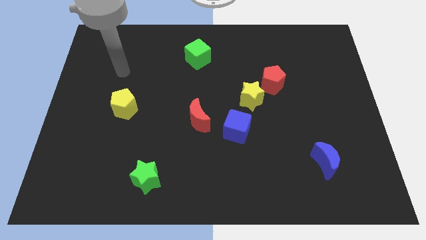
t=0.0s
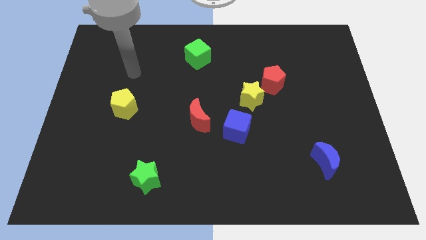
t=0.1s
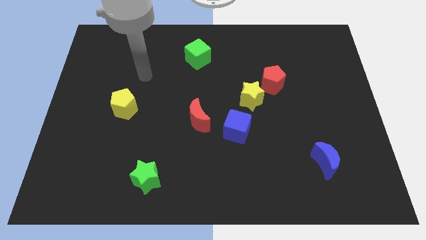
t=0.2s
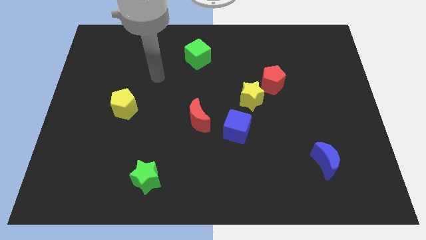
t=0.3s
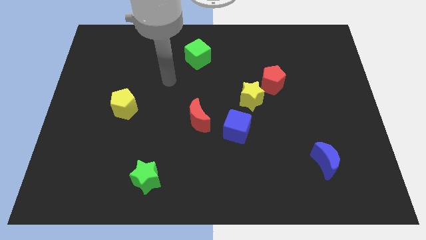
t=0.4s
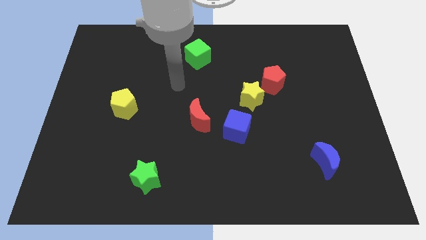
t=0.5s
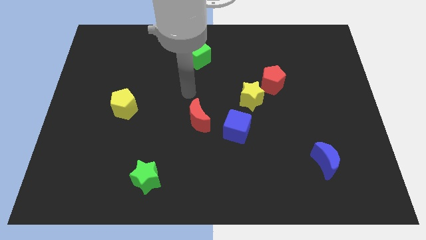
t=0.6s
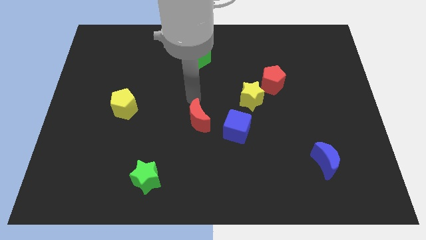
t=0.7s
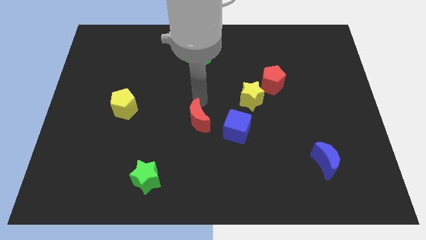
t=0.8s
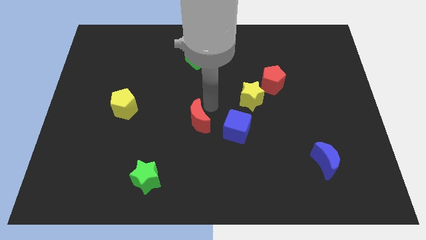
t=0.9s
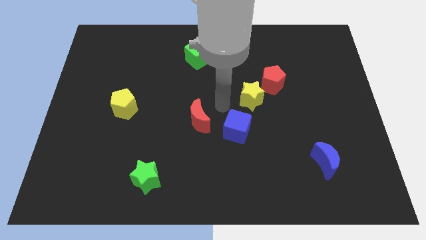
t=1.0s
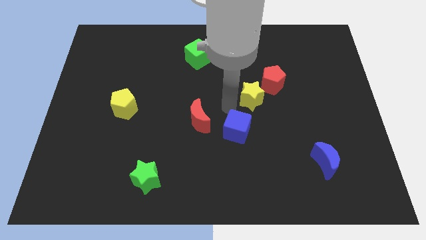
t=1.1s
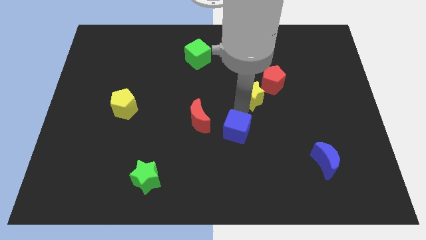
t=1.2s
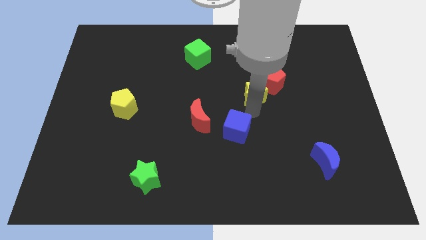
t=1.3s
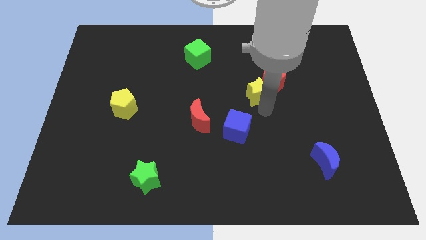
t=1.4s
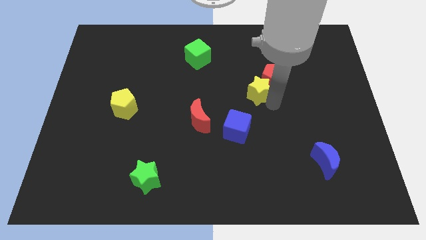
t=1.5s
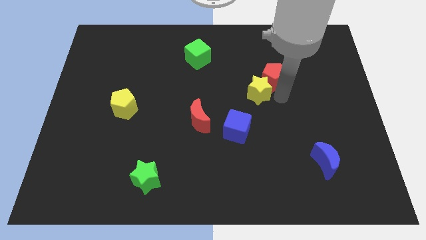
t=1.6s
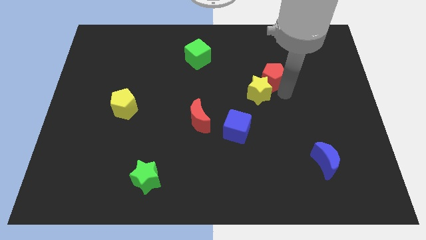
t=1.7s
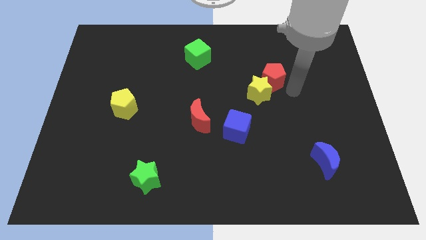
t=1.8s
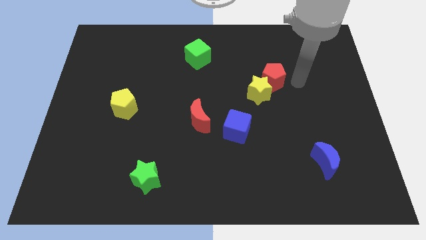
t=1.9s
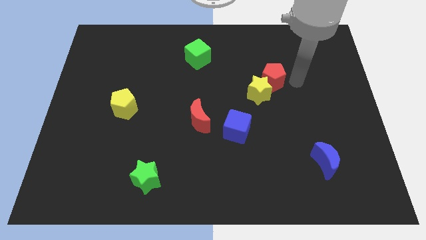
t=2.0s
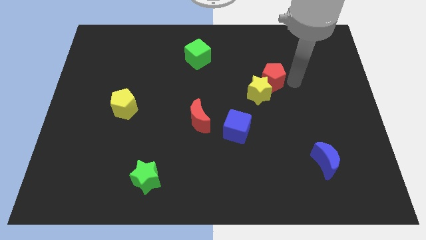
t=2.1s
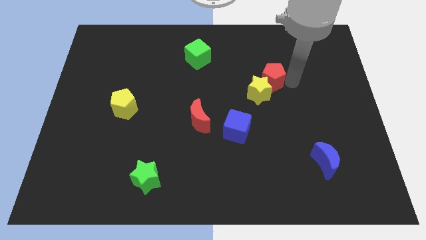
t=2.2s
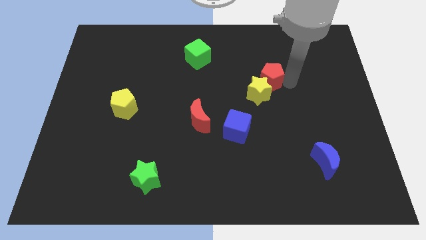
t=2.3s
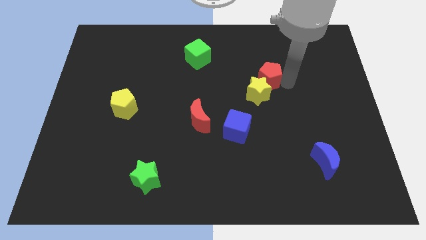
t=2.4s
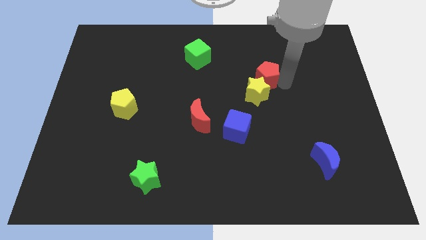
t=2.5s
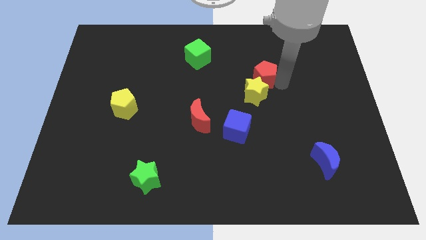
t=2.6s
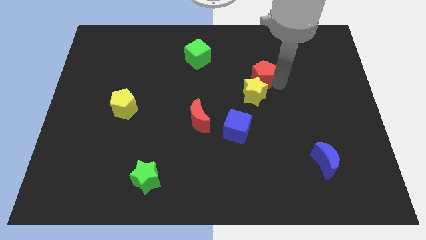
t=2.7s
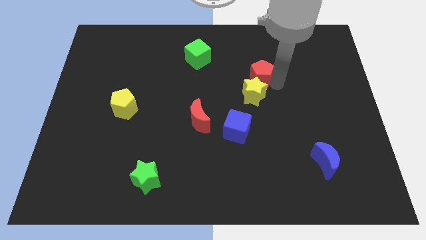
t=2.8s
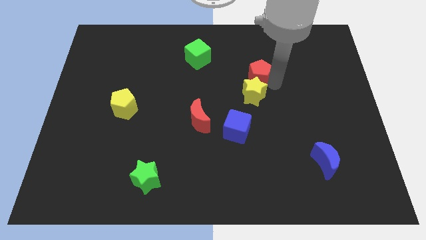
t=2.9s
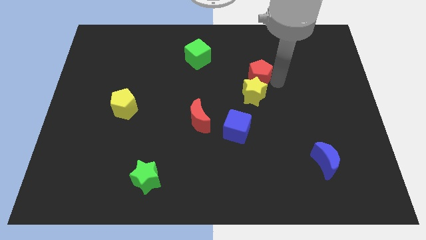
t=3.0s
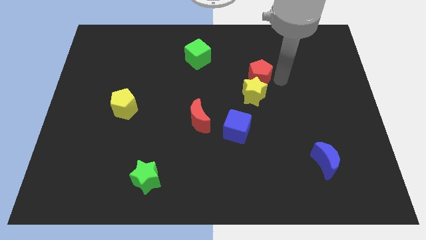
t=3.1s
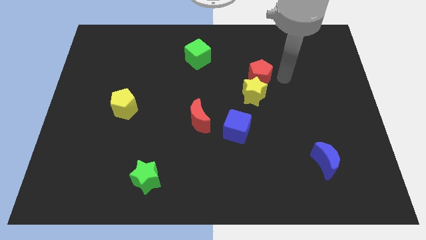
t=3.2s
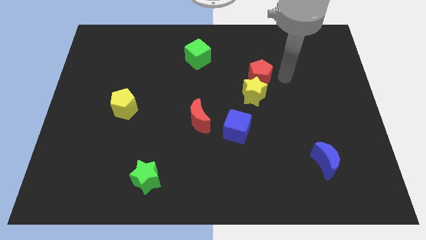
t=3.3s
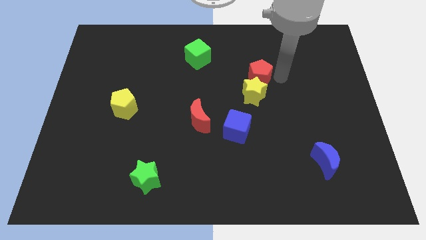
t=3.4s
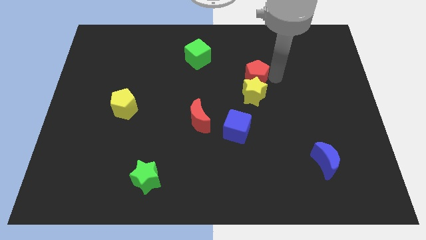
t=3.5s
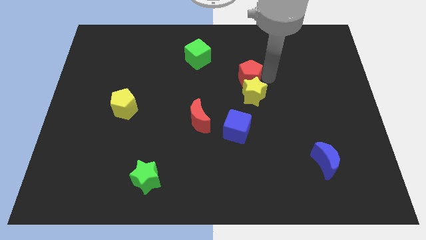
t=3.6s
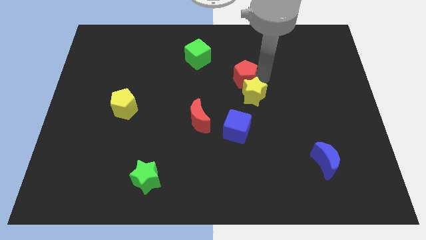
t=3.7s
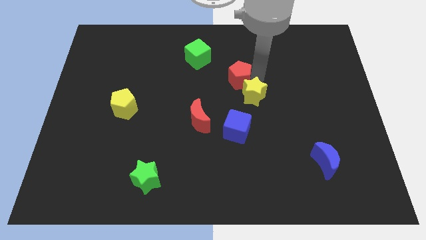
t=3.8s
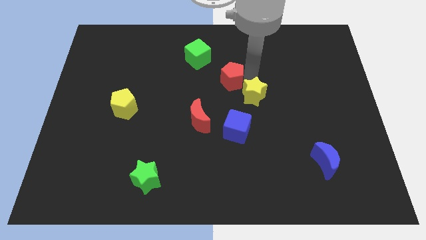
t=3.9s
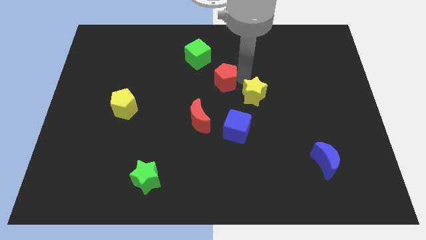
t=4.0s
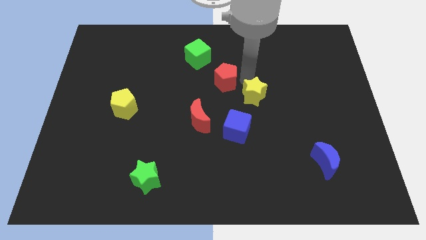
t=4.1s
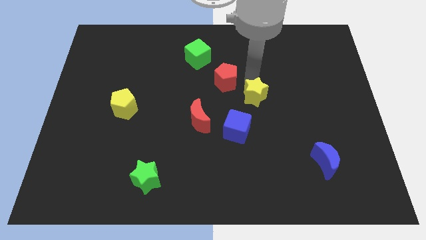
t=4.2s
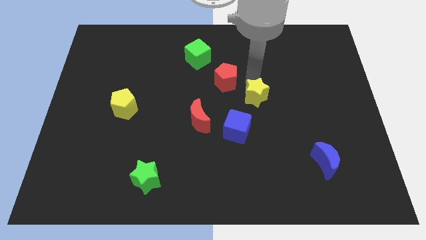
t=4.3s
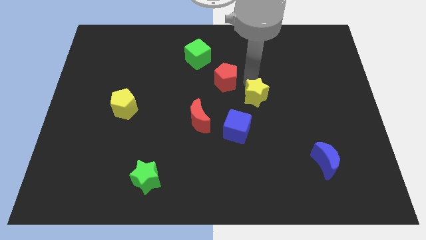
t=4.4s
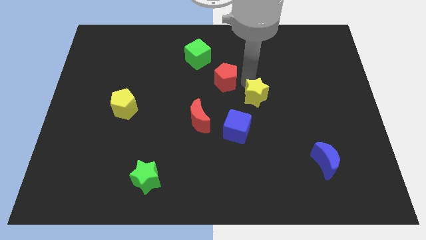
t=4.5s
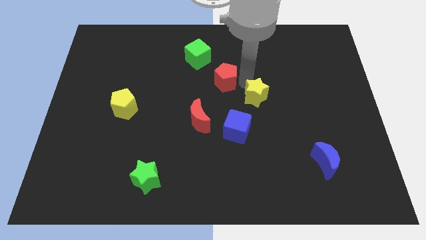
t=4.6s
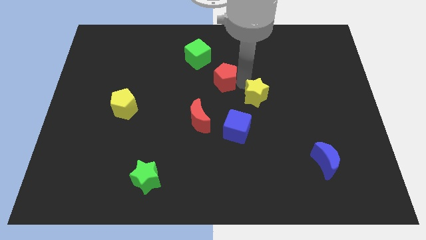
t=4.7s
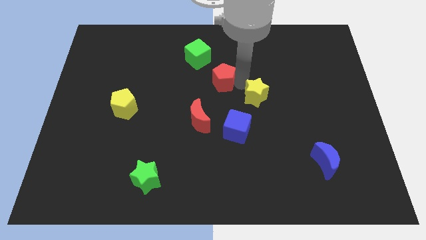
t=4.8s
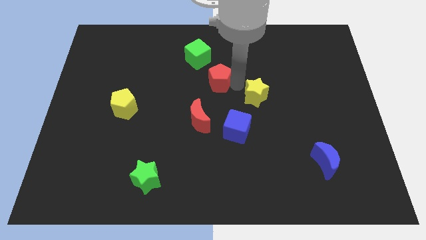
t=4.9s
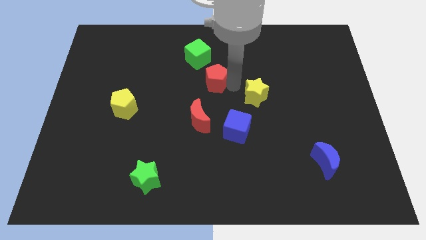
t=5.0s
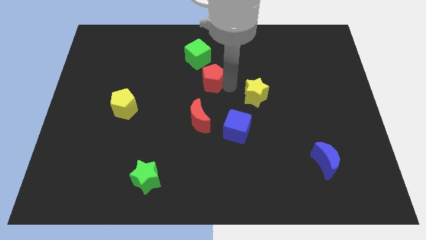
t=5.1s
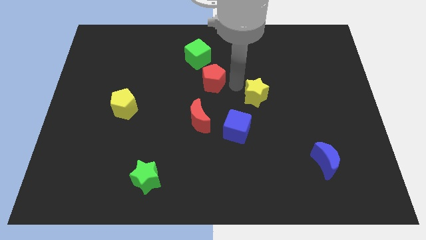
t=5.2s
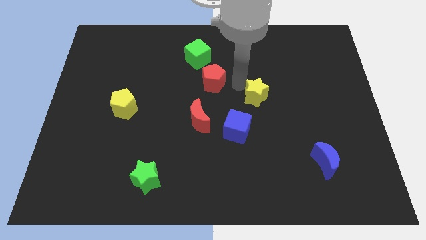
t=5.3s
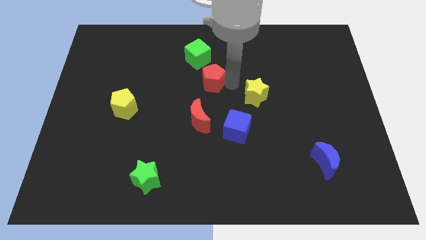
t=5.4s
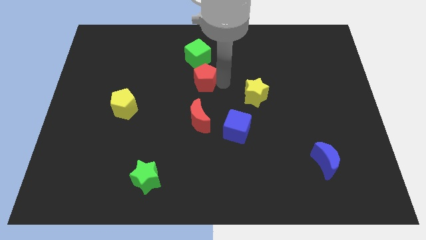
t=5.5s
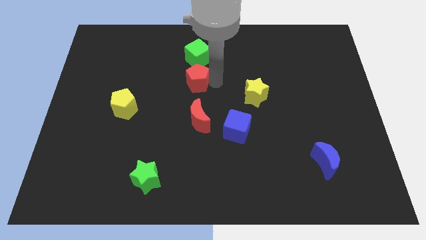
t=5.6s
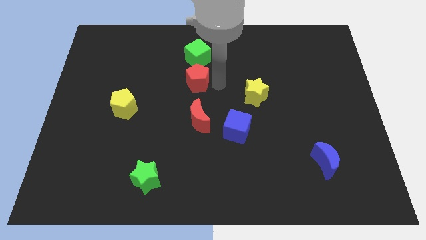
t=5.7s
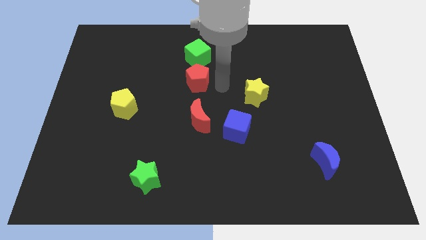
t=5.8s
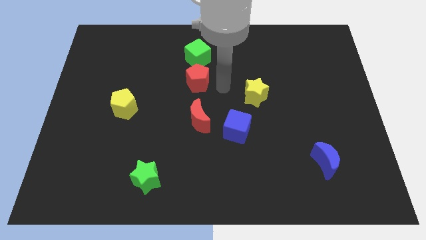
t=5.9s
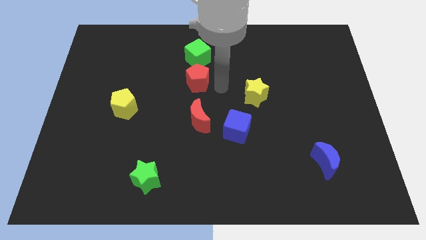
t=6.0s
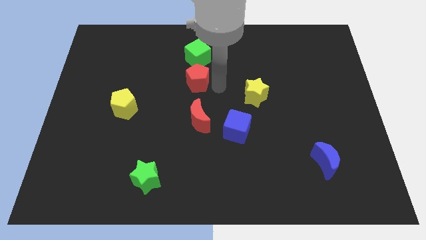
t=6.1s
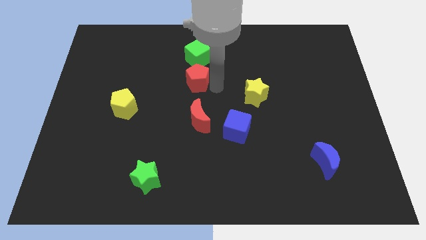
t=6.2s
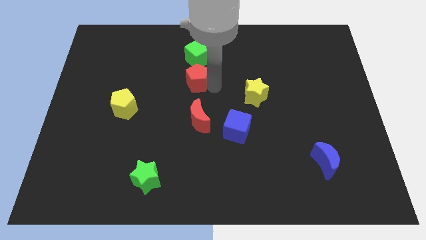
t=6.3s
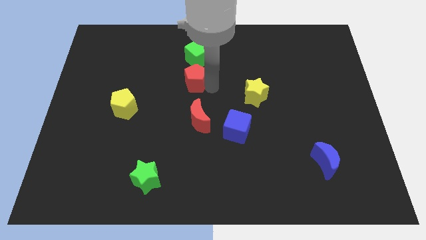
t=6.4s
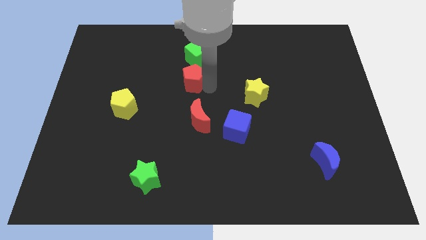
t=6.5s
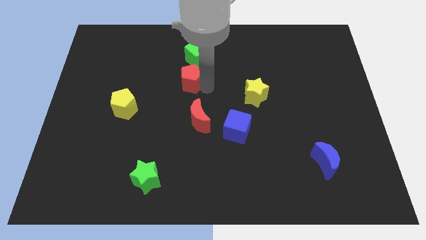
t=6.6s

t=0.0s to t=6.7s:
slide the red pentagon to the left

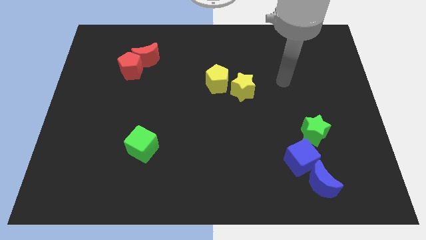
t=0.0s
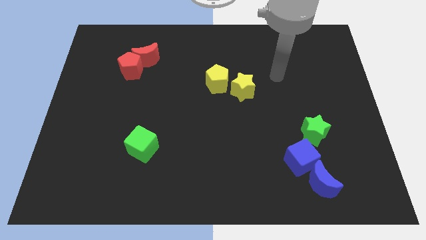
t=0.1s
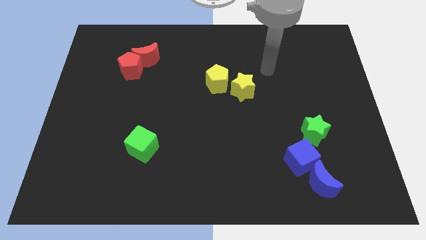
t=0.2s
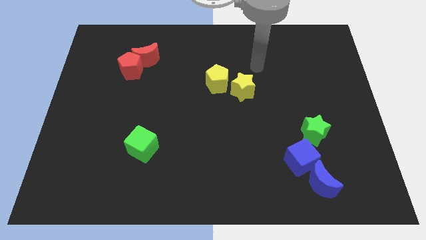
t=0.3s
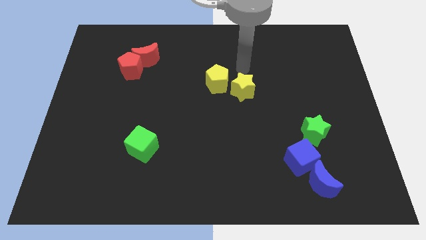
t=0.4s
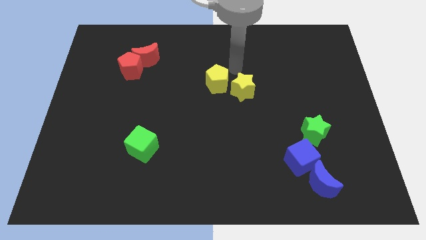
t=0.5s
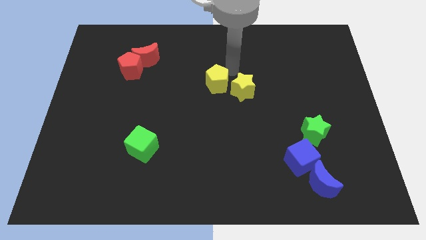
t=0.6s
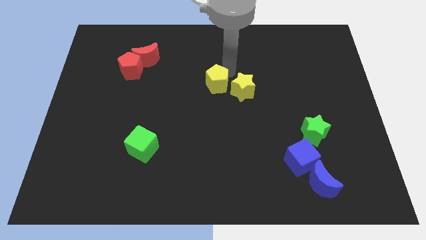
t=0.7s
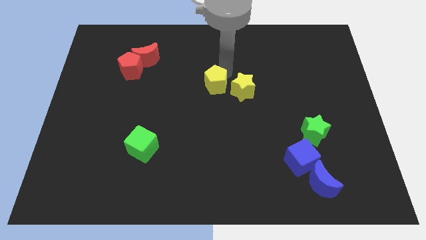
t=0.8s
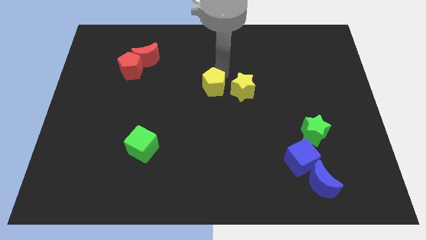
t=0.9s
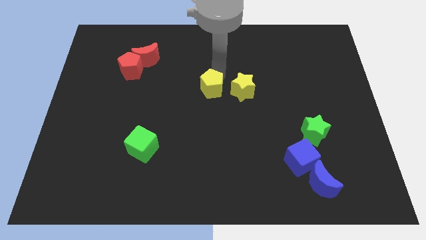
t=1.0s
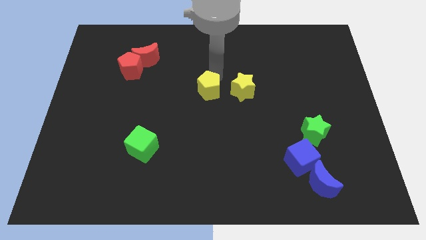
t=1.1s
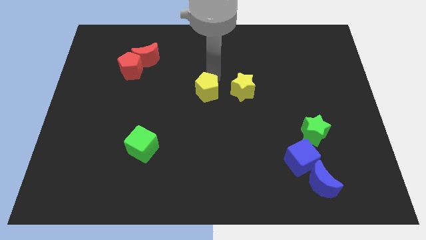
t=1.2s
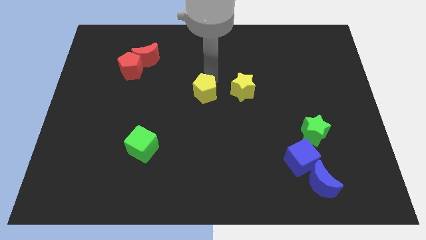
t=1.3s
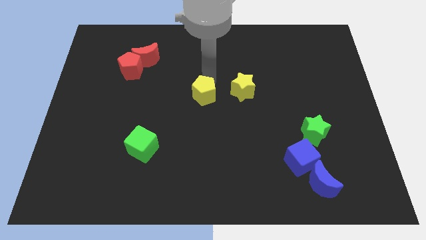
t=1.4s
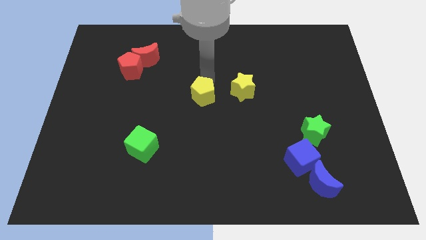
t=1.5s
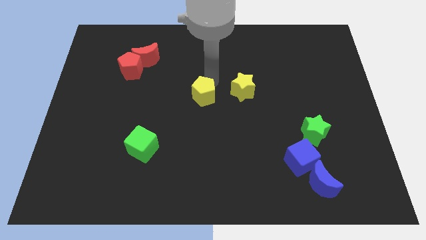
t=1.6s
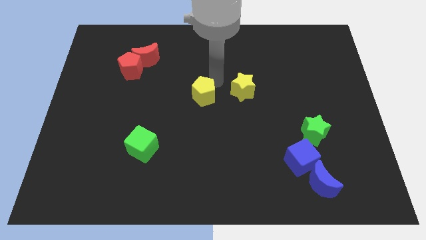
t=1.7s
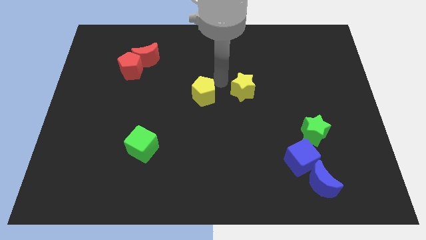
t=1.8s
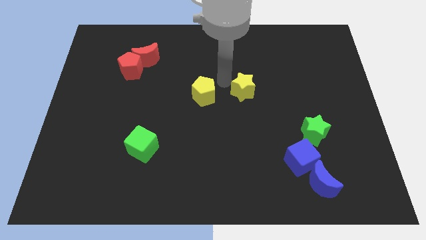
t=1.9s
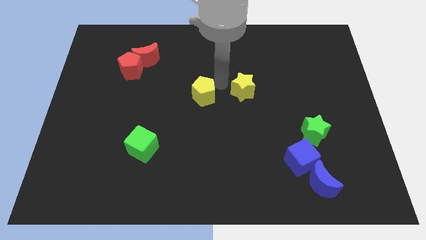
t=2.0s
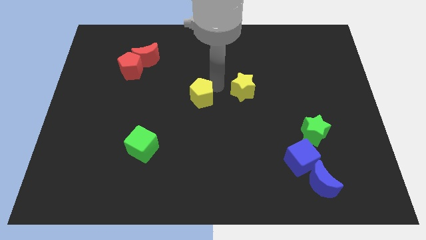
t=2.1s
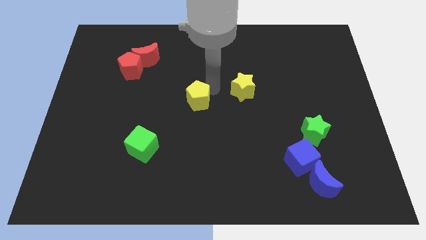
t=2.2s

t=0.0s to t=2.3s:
slightly push the yellow pentagon diagonally downwards and left
